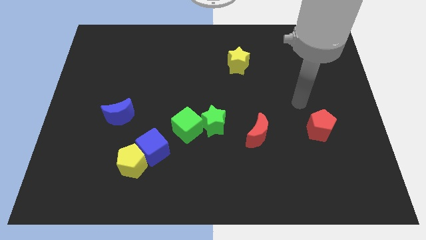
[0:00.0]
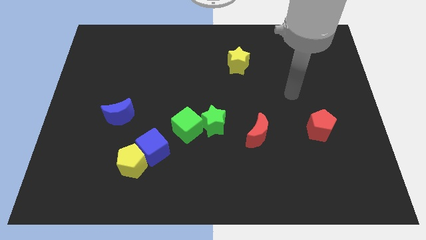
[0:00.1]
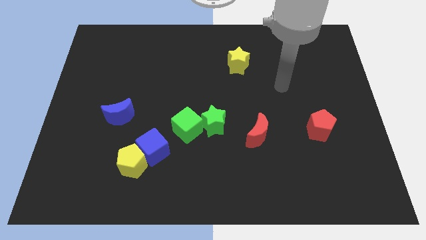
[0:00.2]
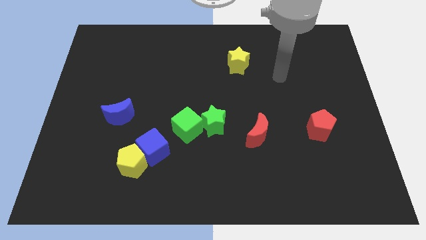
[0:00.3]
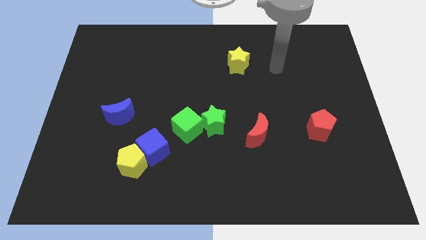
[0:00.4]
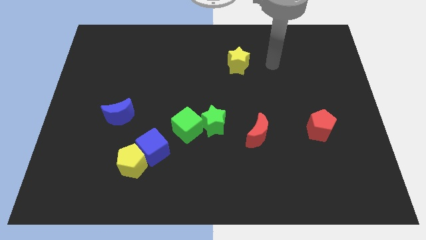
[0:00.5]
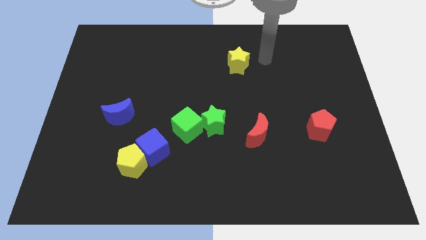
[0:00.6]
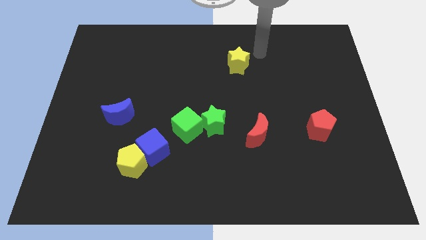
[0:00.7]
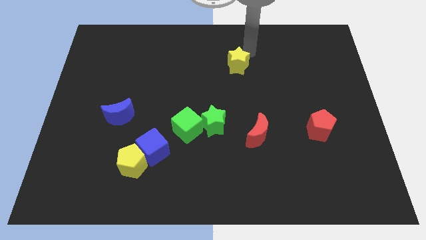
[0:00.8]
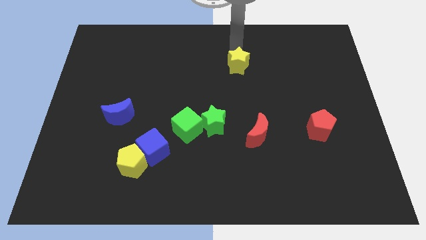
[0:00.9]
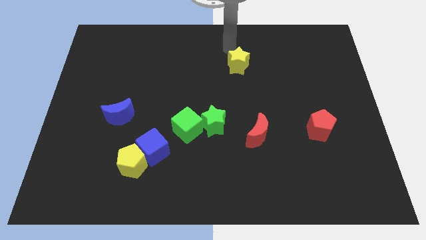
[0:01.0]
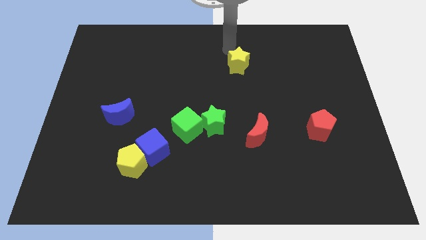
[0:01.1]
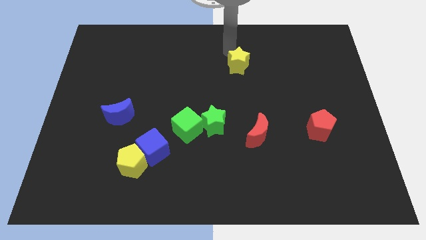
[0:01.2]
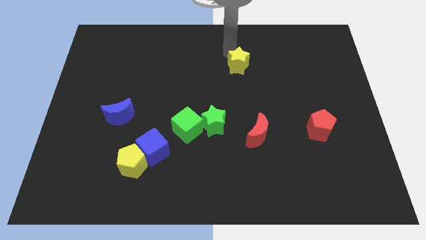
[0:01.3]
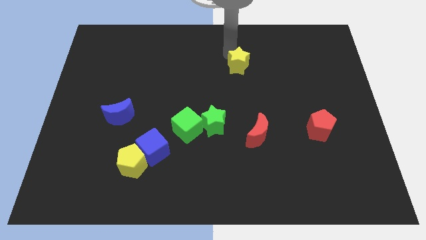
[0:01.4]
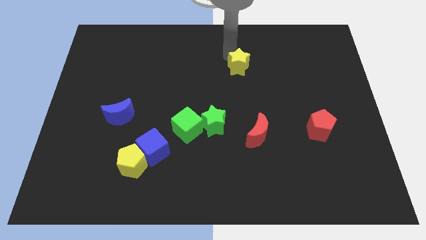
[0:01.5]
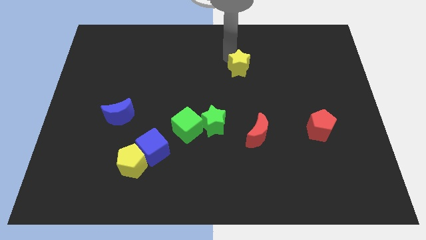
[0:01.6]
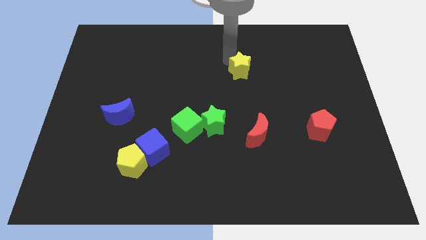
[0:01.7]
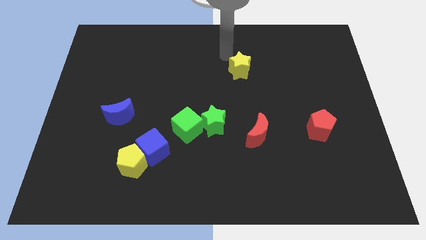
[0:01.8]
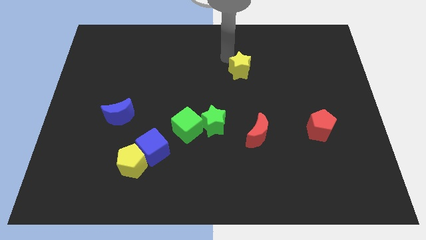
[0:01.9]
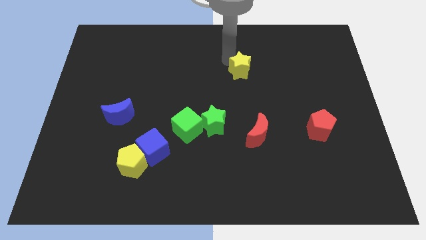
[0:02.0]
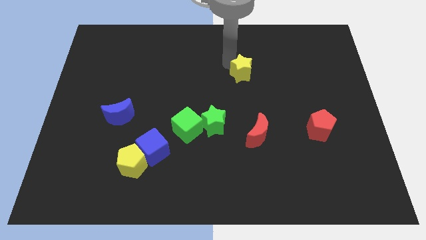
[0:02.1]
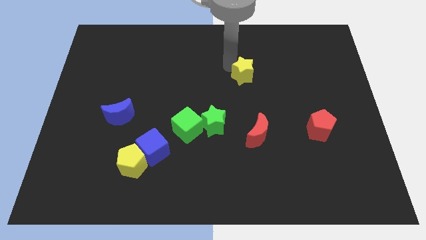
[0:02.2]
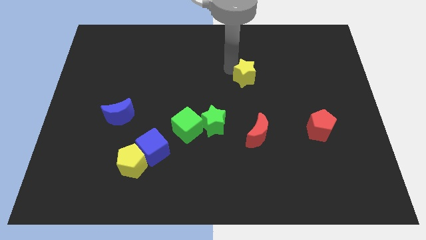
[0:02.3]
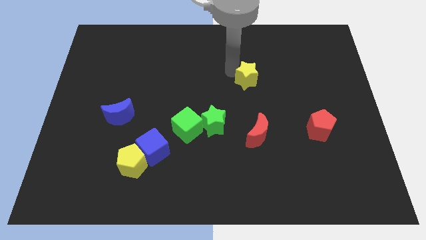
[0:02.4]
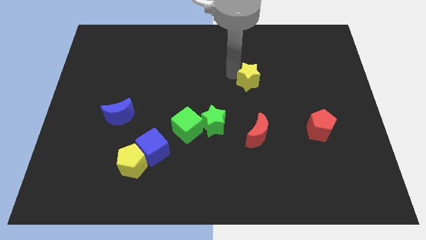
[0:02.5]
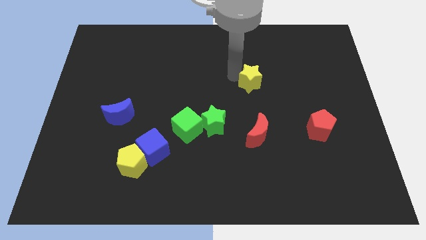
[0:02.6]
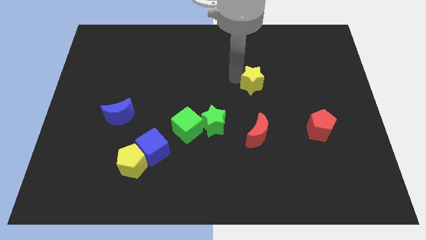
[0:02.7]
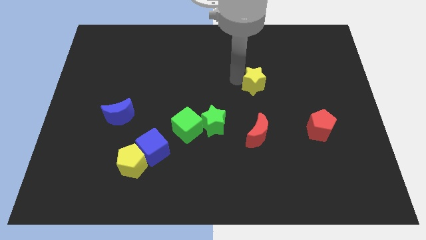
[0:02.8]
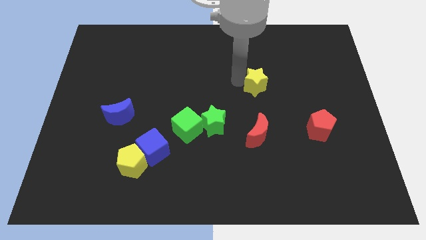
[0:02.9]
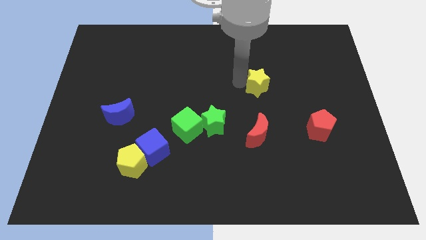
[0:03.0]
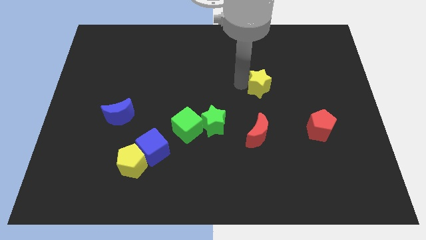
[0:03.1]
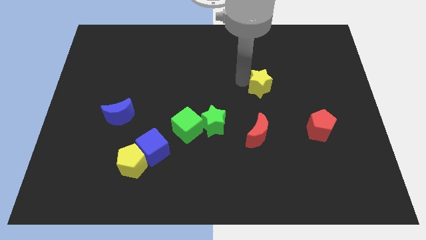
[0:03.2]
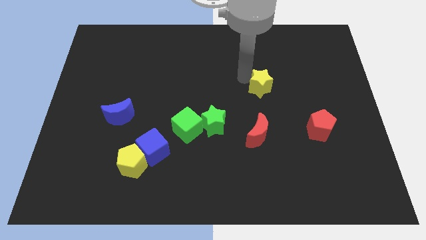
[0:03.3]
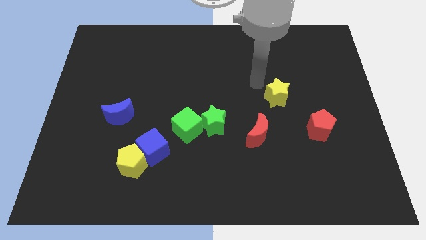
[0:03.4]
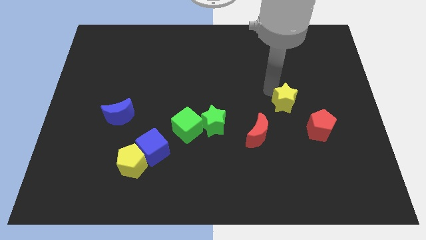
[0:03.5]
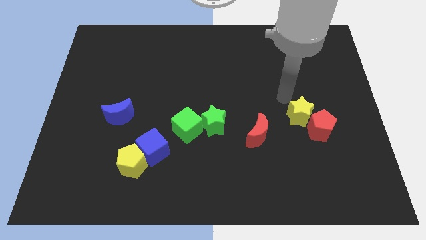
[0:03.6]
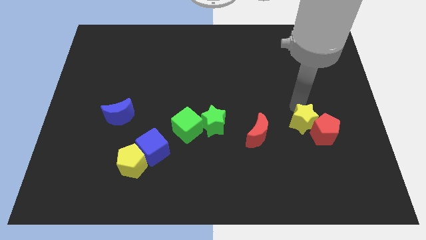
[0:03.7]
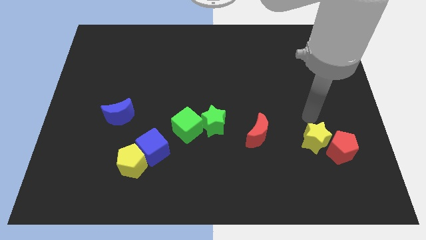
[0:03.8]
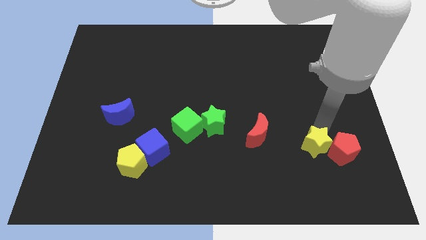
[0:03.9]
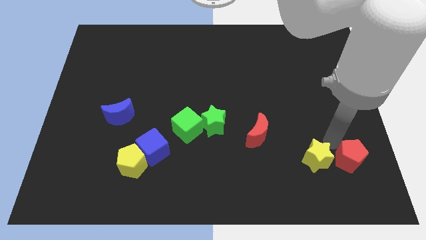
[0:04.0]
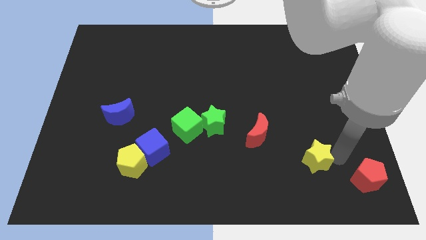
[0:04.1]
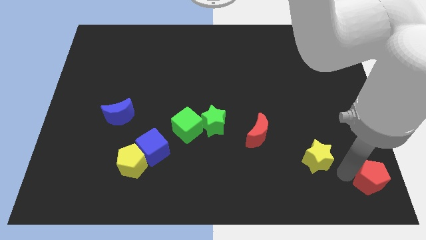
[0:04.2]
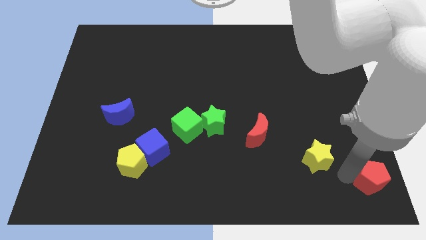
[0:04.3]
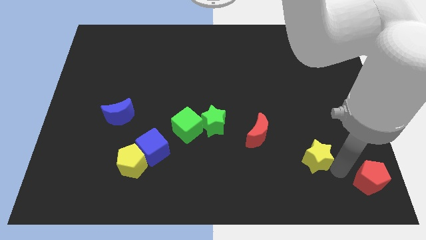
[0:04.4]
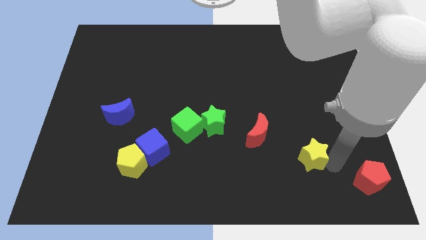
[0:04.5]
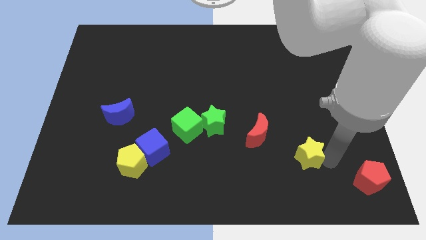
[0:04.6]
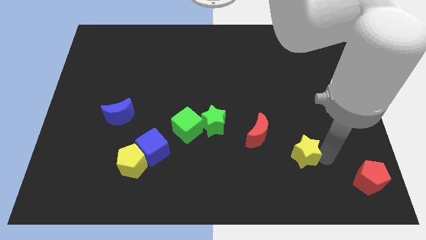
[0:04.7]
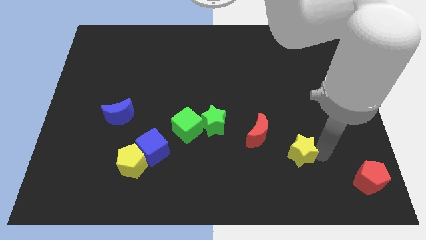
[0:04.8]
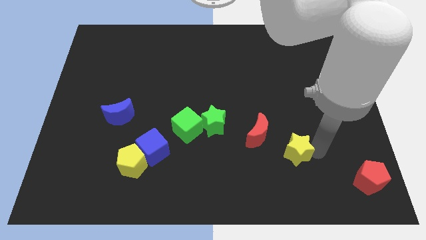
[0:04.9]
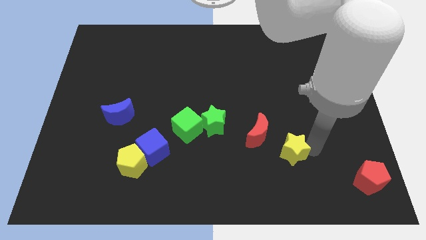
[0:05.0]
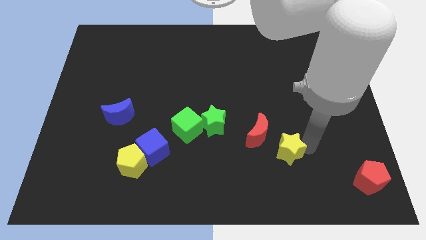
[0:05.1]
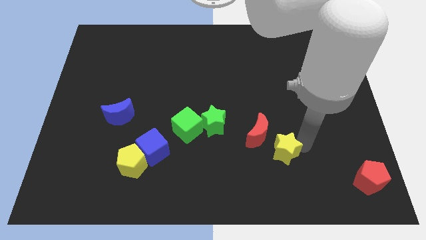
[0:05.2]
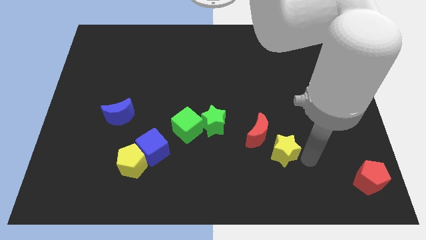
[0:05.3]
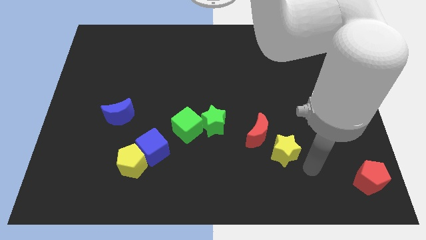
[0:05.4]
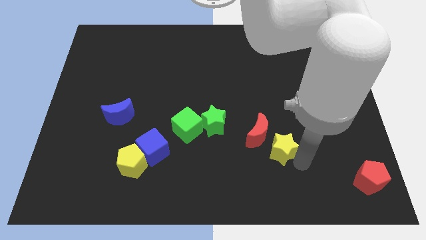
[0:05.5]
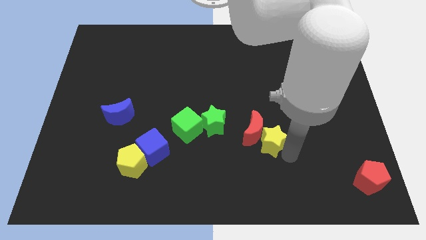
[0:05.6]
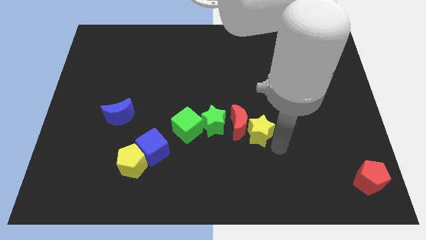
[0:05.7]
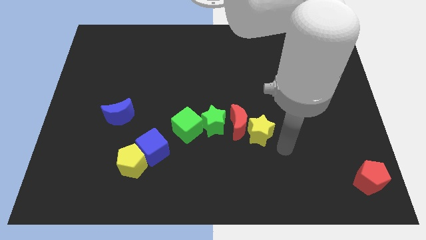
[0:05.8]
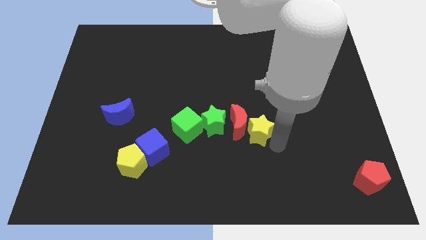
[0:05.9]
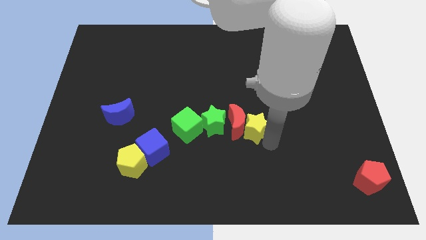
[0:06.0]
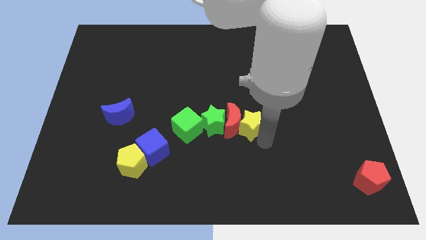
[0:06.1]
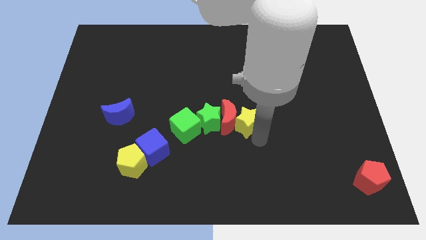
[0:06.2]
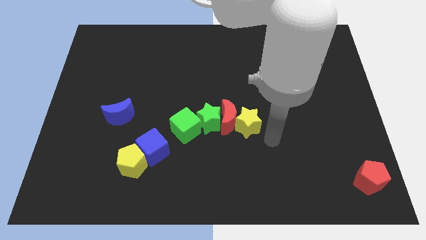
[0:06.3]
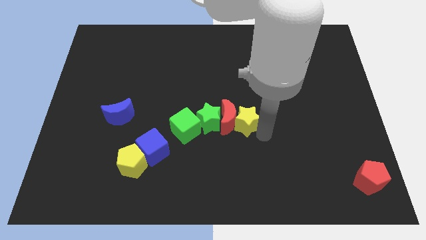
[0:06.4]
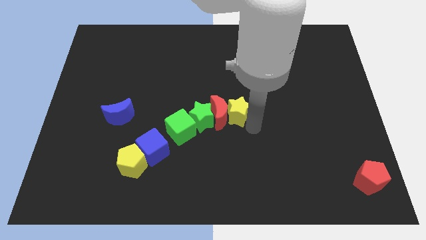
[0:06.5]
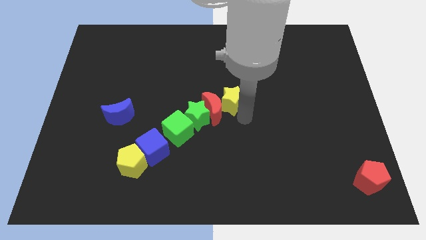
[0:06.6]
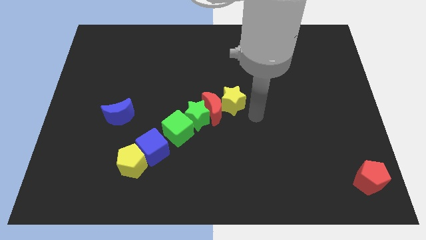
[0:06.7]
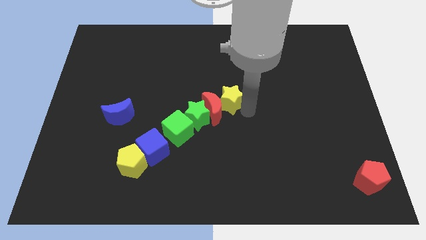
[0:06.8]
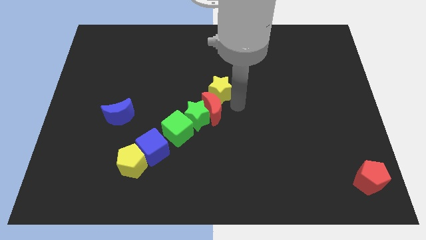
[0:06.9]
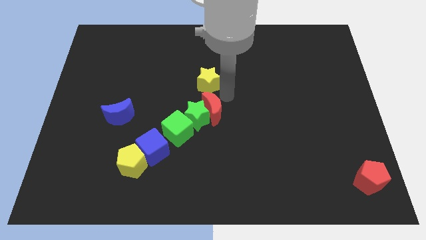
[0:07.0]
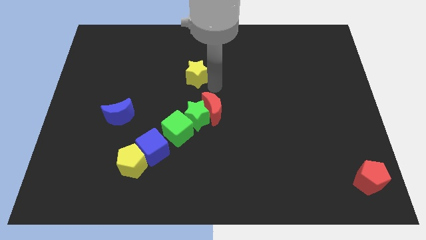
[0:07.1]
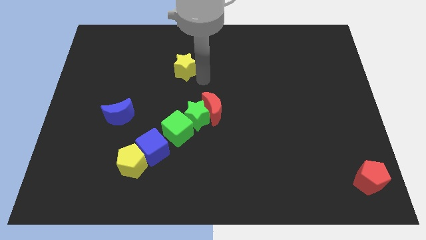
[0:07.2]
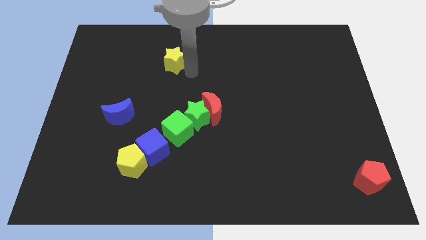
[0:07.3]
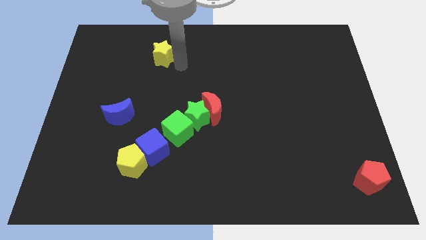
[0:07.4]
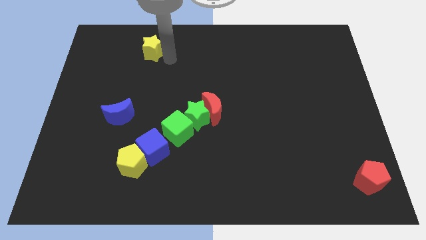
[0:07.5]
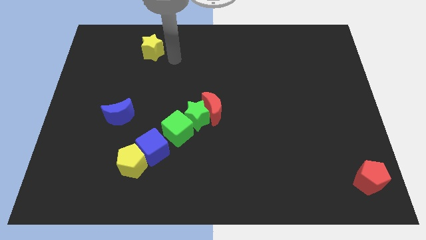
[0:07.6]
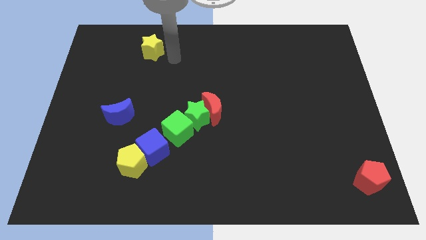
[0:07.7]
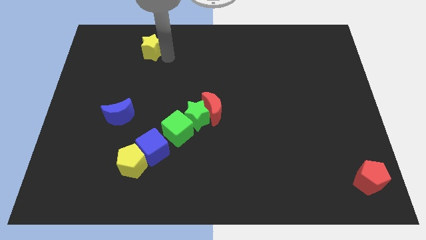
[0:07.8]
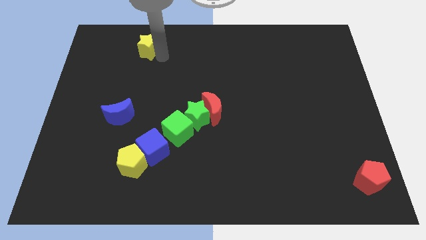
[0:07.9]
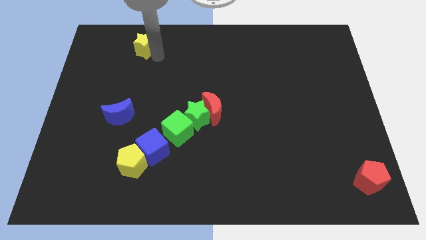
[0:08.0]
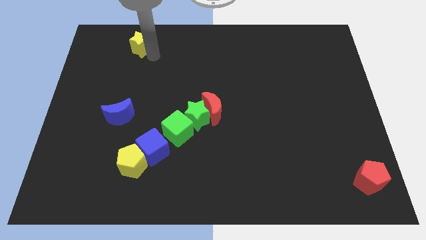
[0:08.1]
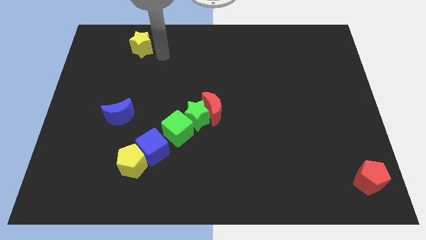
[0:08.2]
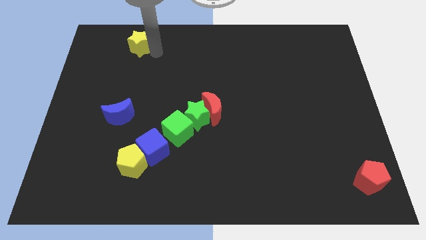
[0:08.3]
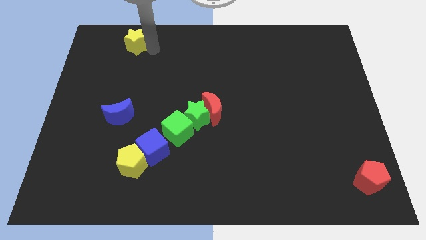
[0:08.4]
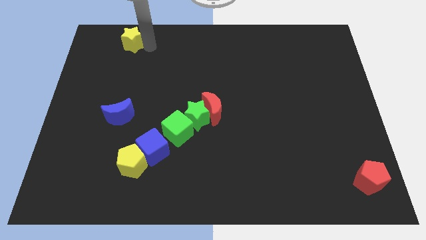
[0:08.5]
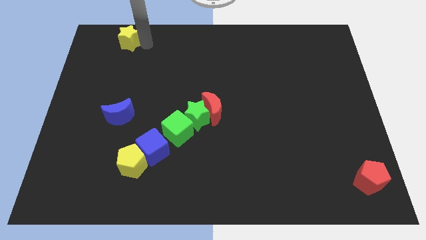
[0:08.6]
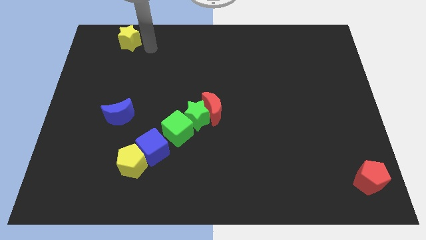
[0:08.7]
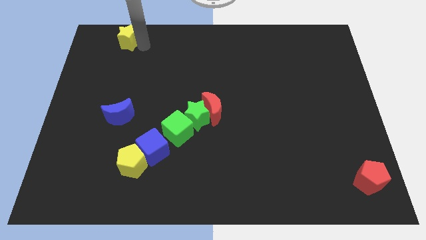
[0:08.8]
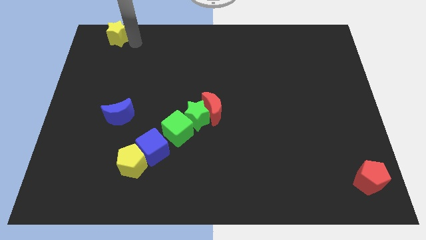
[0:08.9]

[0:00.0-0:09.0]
push the yellow star to the upper left corner
